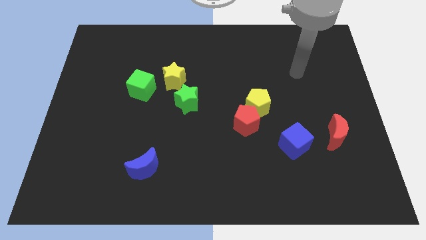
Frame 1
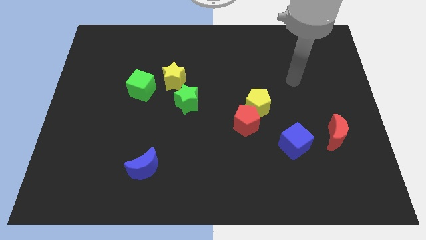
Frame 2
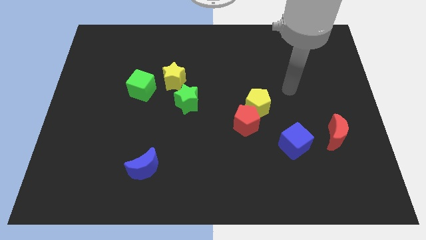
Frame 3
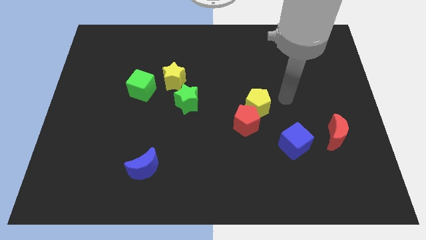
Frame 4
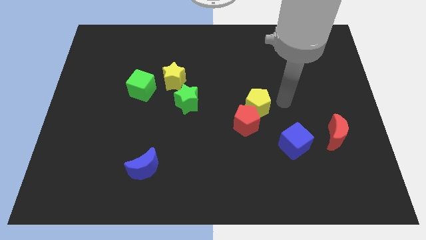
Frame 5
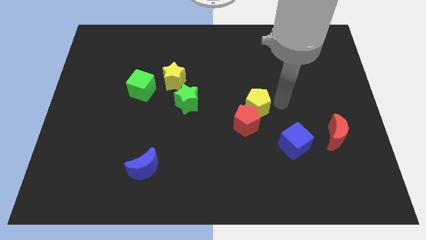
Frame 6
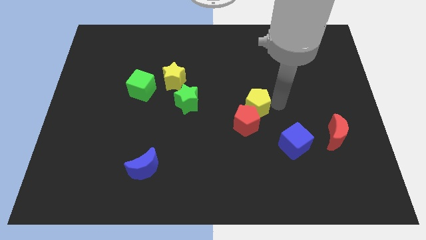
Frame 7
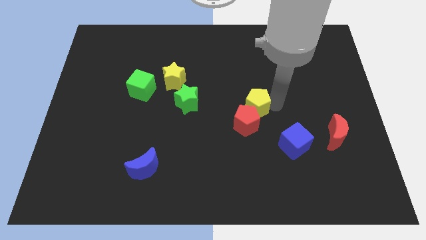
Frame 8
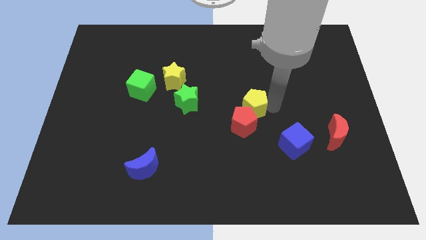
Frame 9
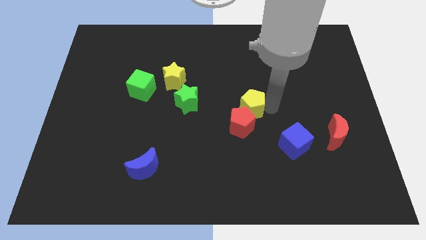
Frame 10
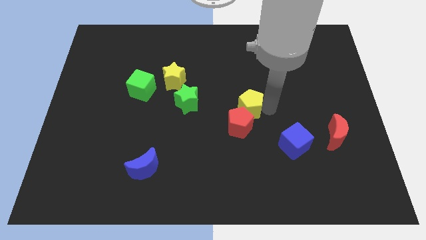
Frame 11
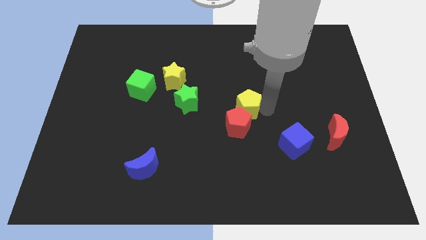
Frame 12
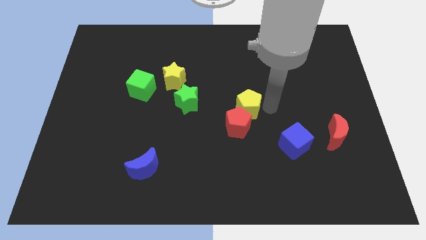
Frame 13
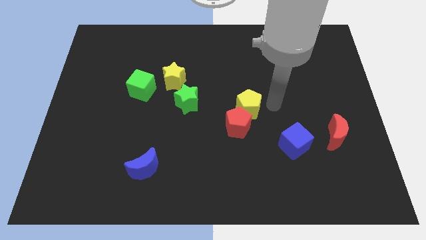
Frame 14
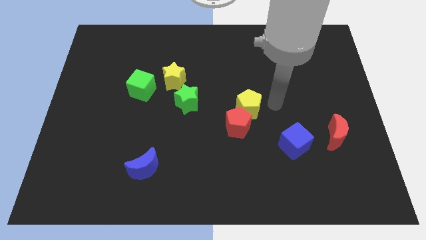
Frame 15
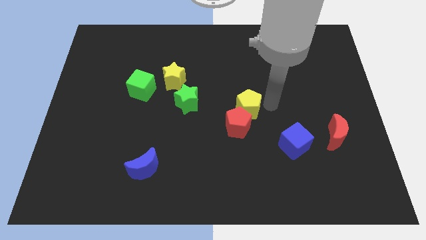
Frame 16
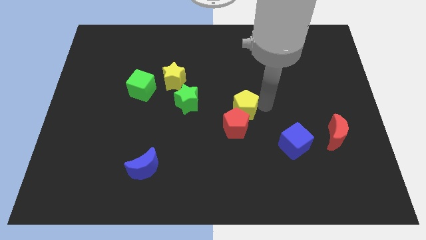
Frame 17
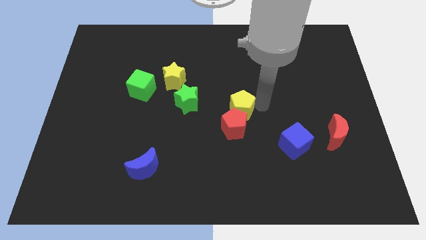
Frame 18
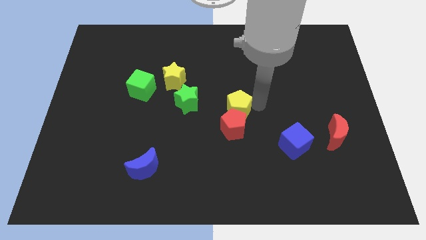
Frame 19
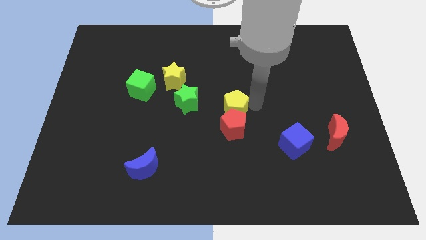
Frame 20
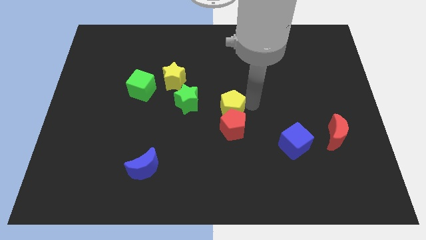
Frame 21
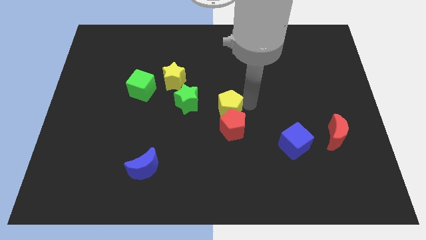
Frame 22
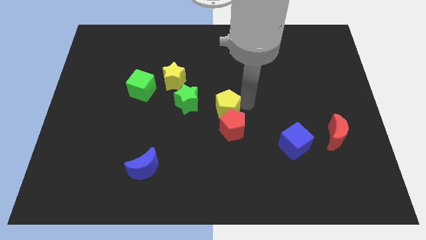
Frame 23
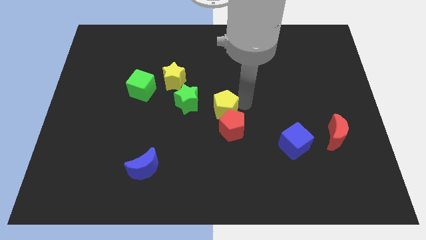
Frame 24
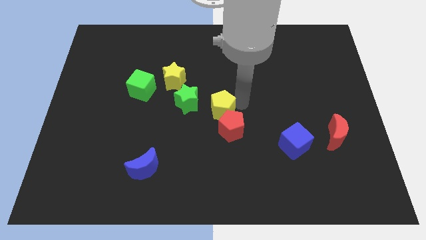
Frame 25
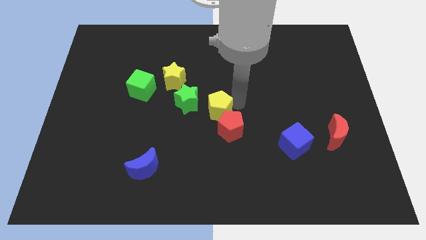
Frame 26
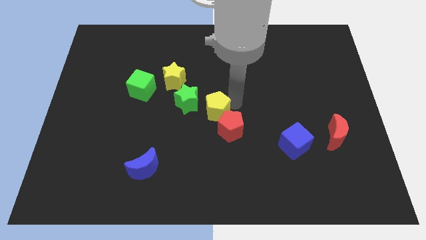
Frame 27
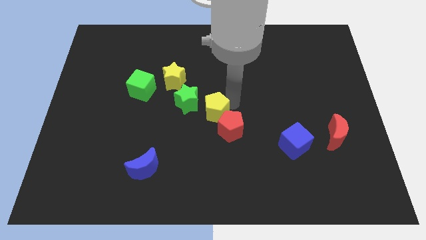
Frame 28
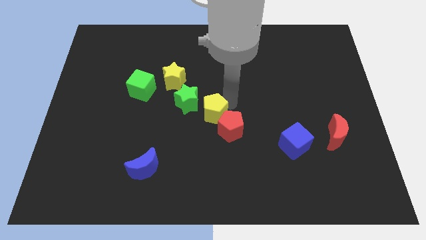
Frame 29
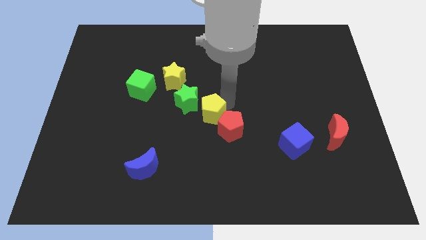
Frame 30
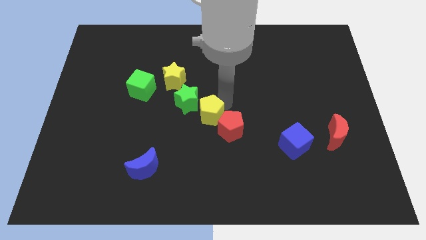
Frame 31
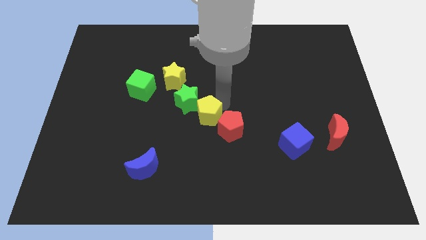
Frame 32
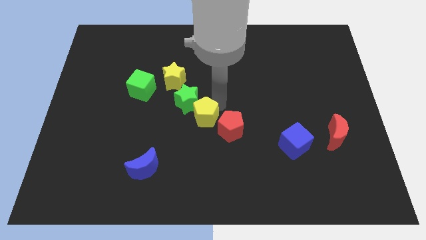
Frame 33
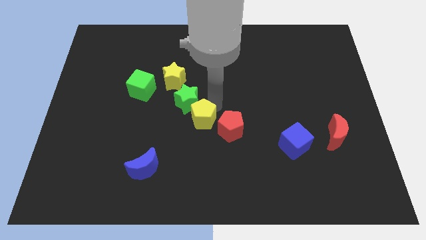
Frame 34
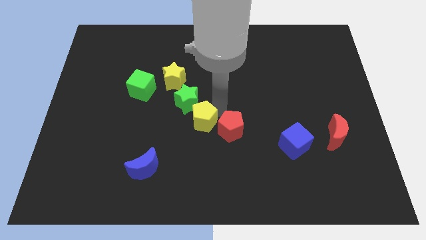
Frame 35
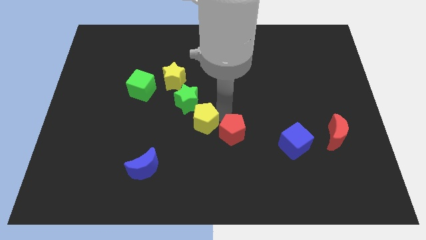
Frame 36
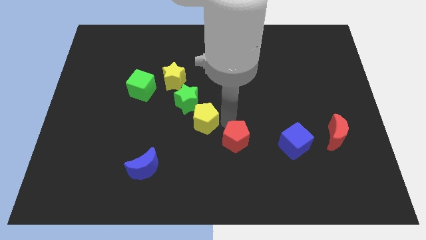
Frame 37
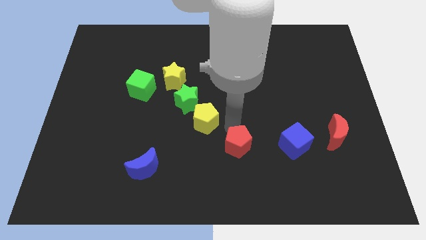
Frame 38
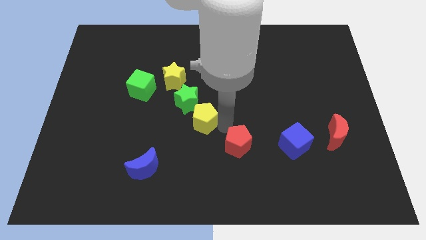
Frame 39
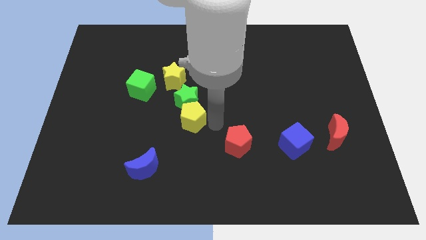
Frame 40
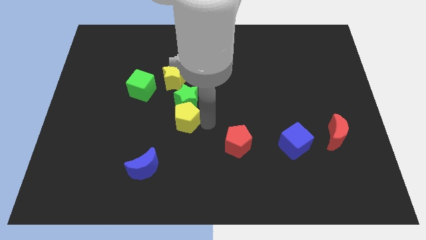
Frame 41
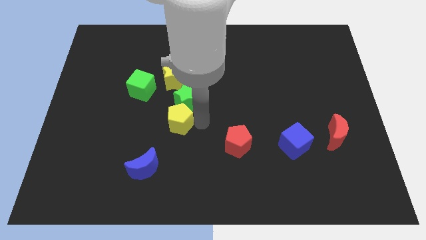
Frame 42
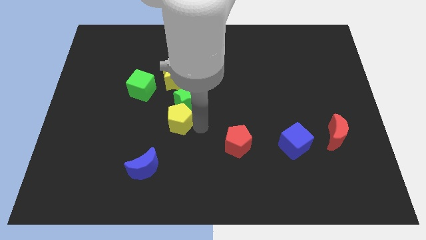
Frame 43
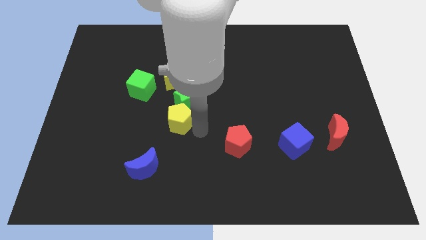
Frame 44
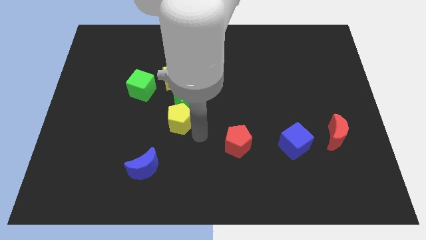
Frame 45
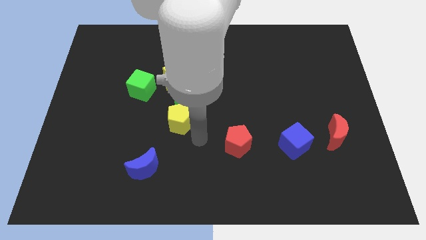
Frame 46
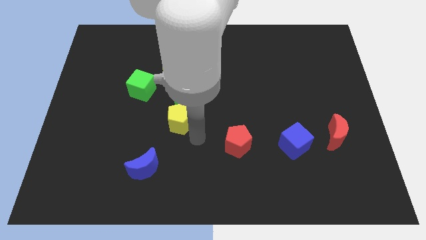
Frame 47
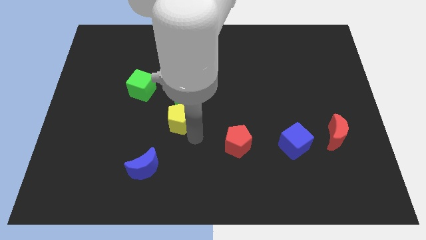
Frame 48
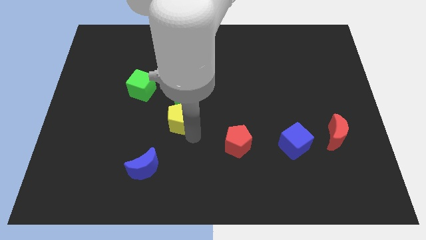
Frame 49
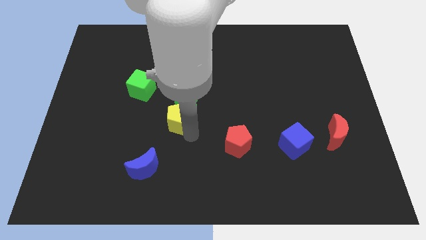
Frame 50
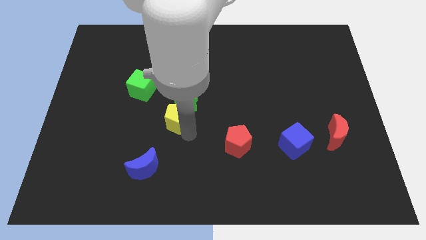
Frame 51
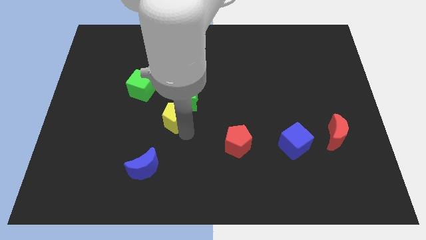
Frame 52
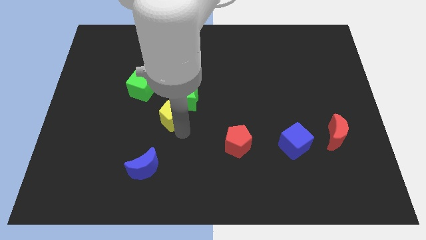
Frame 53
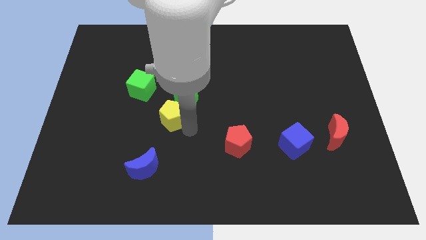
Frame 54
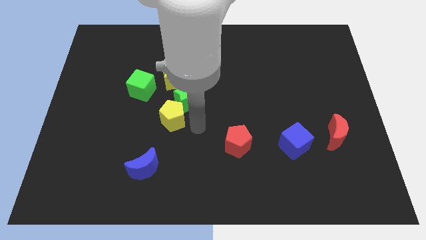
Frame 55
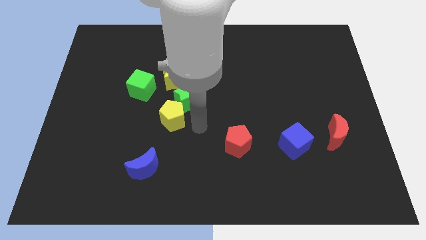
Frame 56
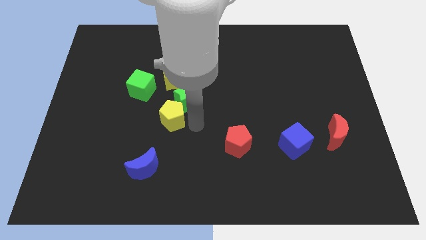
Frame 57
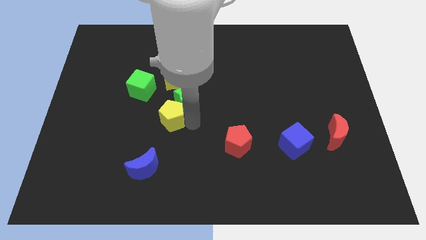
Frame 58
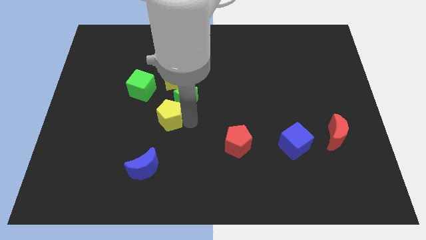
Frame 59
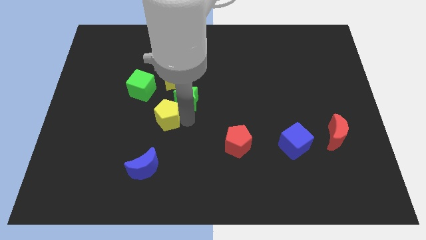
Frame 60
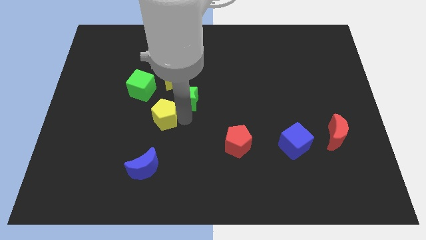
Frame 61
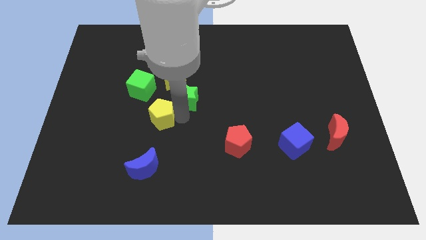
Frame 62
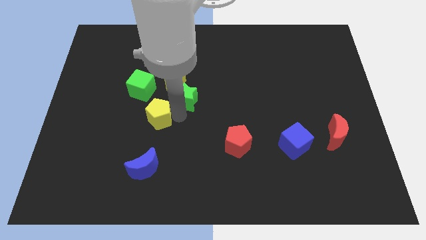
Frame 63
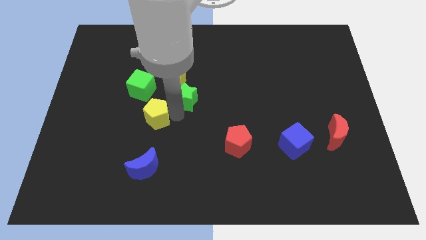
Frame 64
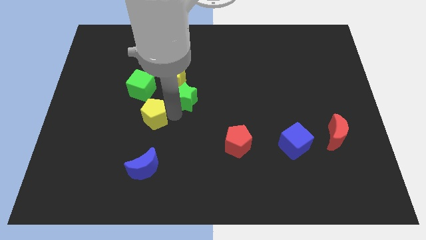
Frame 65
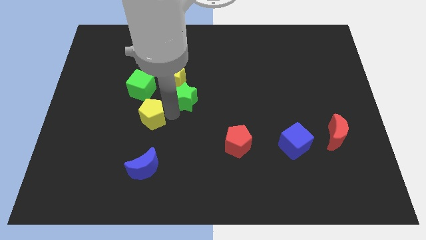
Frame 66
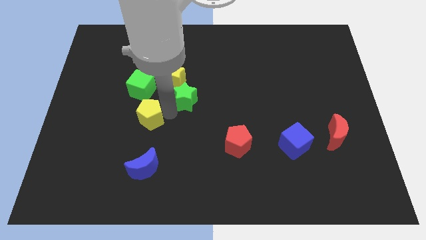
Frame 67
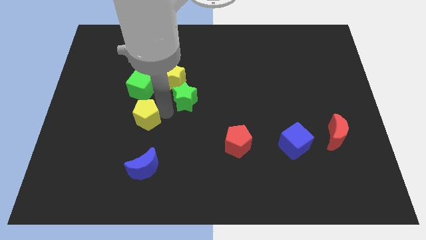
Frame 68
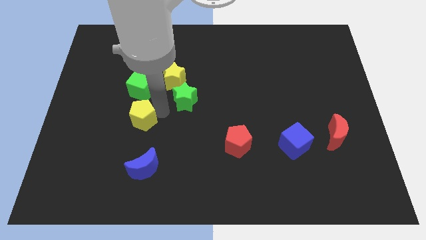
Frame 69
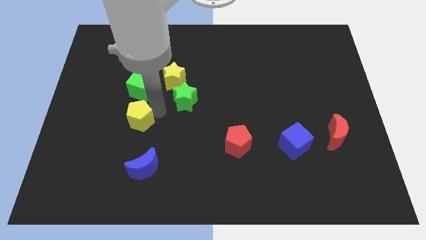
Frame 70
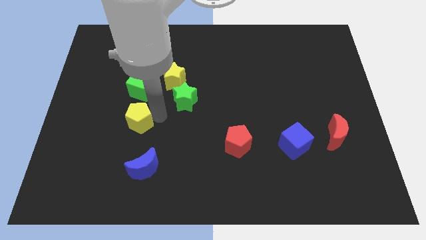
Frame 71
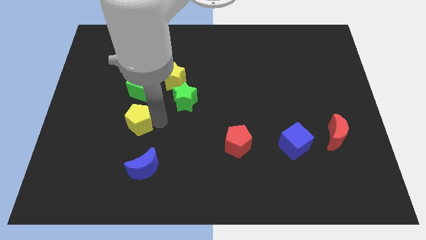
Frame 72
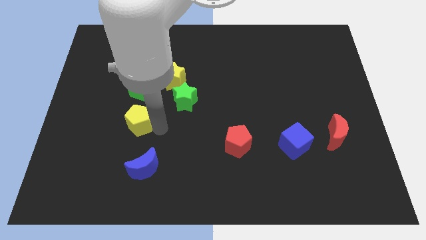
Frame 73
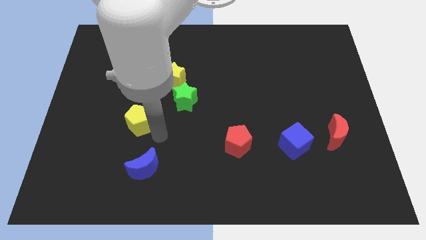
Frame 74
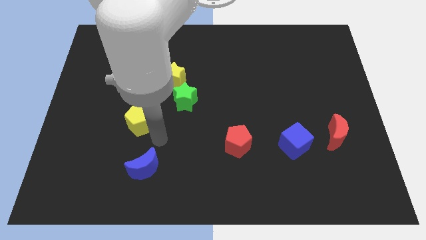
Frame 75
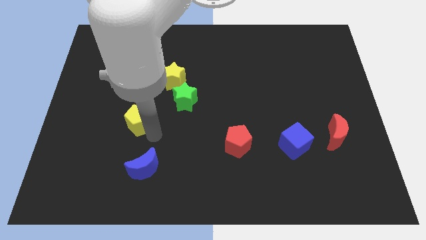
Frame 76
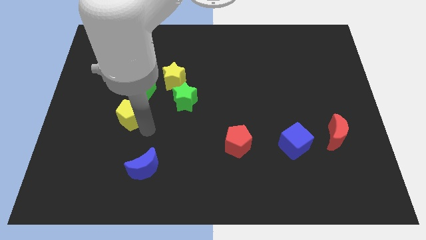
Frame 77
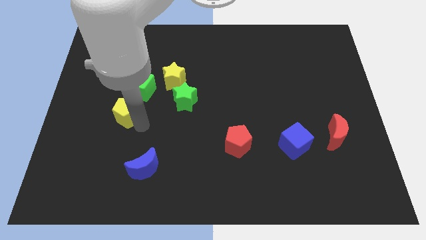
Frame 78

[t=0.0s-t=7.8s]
slide the yellow pentagon diagonally down and to the left of the green cube

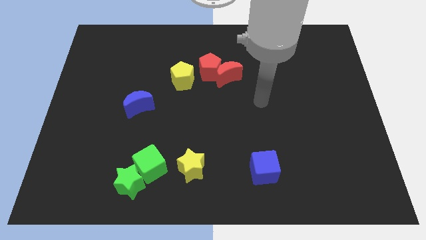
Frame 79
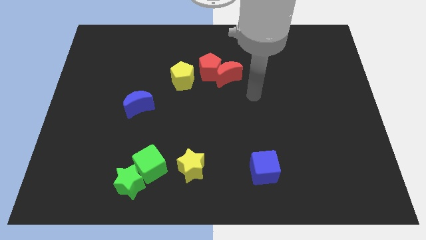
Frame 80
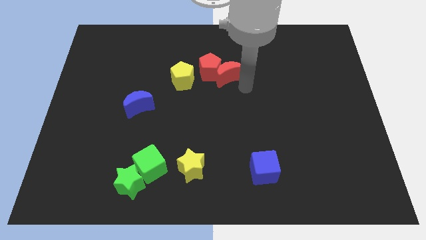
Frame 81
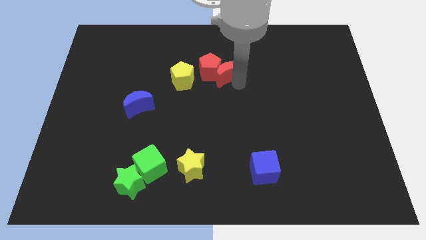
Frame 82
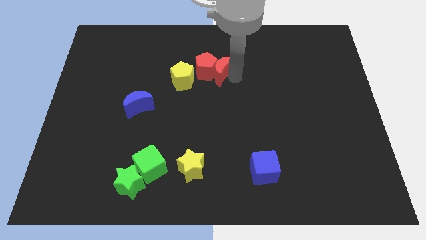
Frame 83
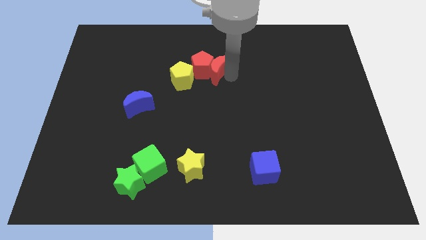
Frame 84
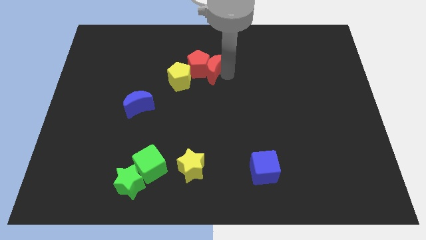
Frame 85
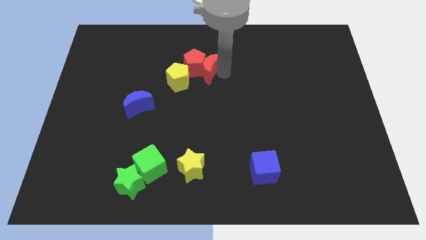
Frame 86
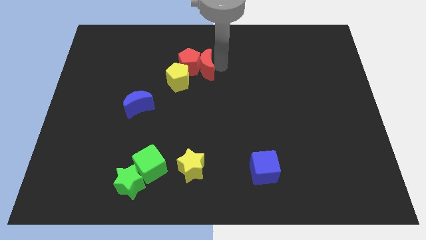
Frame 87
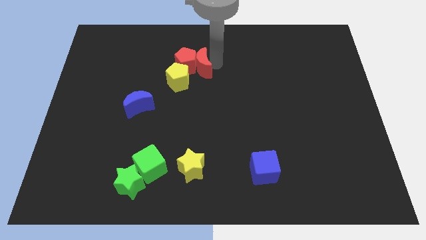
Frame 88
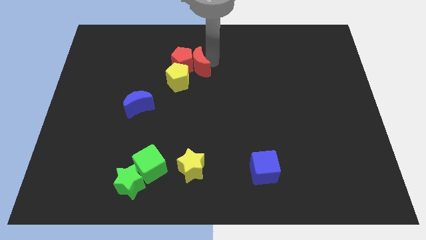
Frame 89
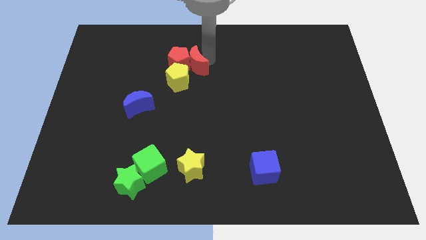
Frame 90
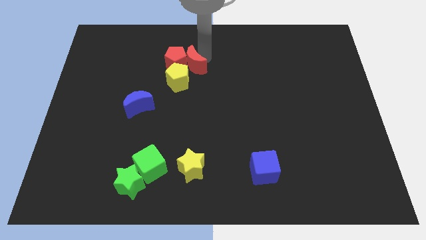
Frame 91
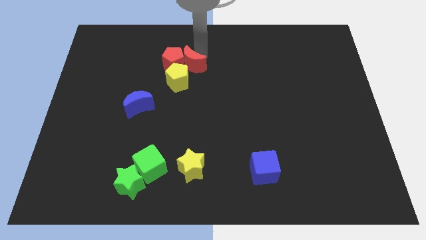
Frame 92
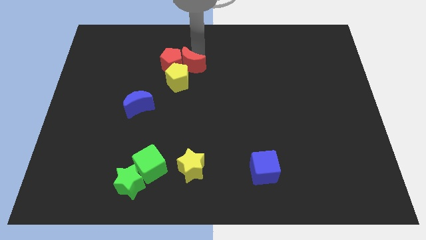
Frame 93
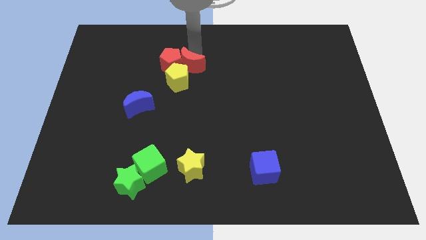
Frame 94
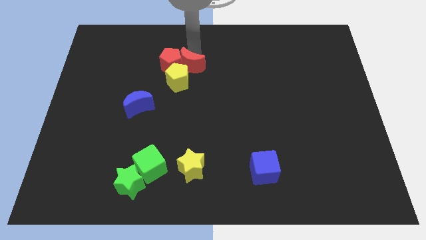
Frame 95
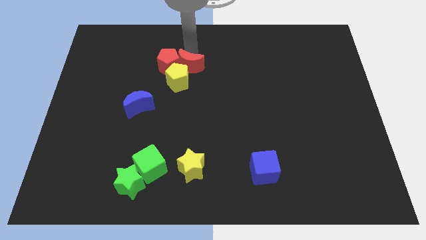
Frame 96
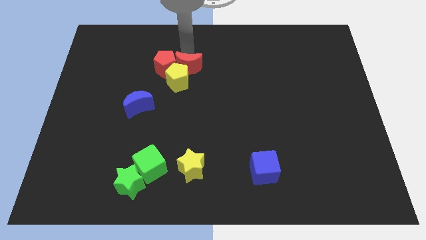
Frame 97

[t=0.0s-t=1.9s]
slide the red pentagon to the left of the yellow pentagon
